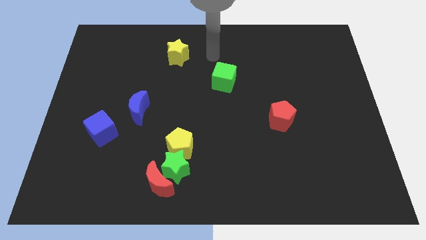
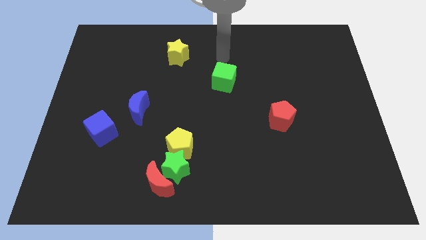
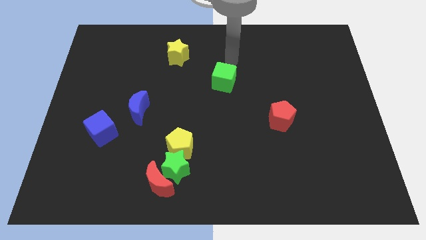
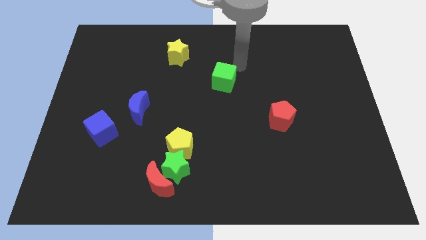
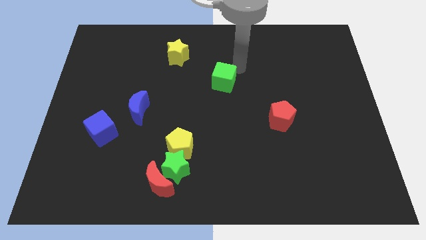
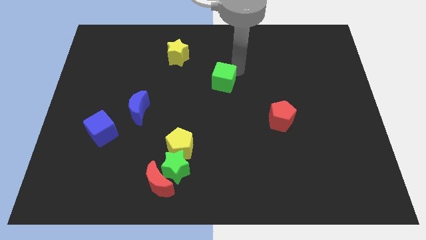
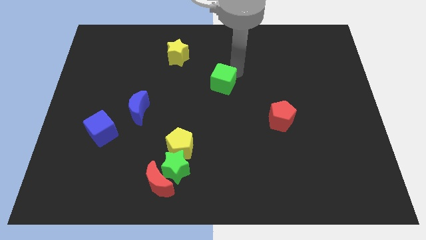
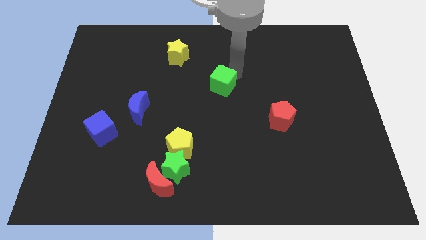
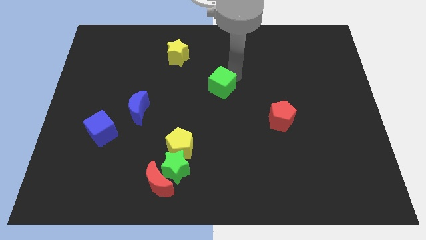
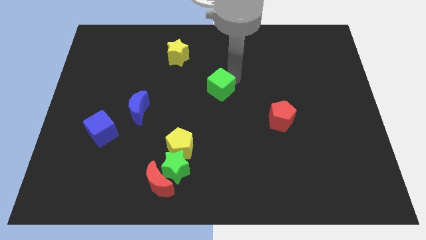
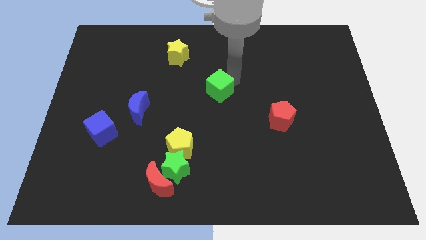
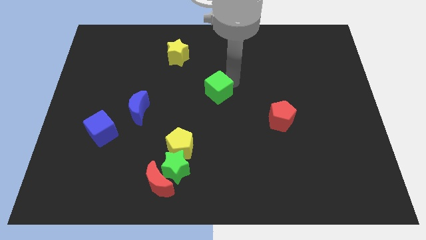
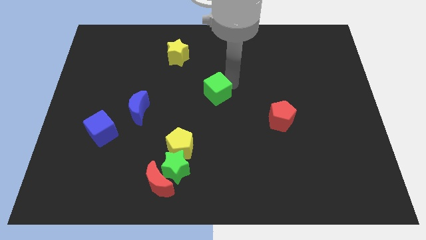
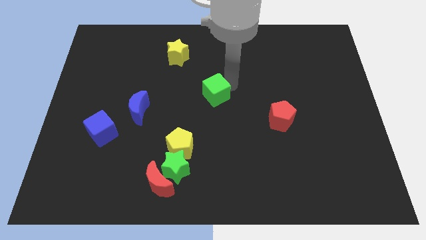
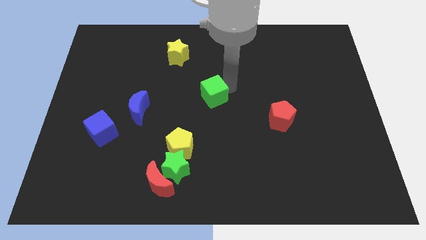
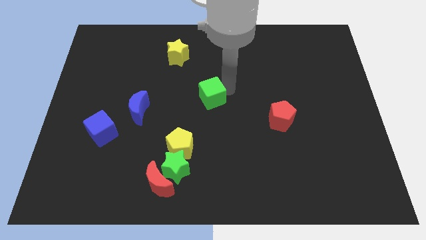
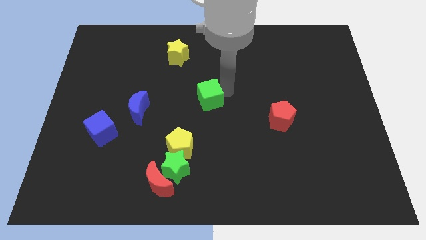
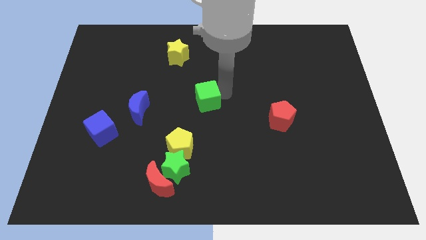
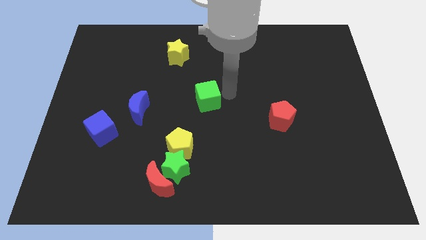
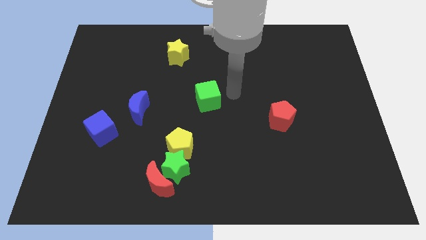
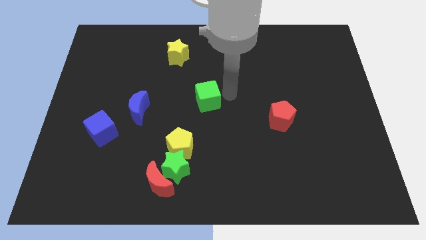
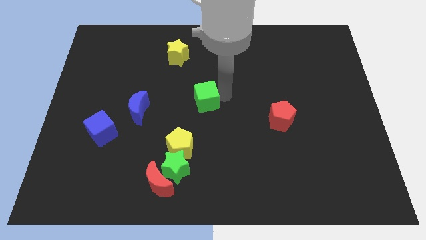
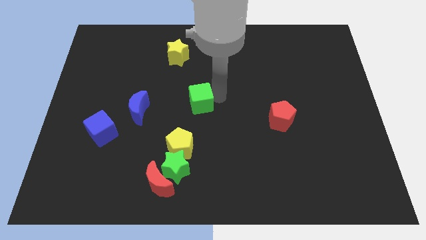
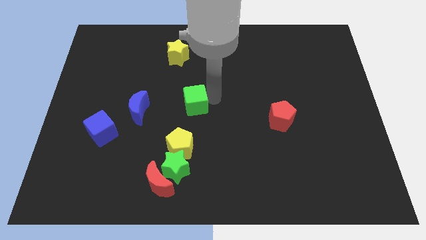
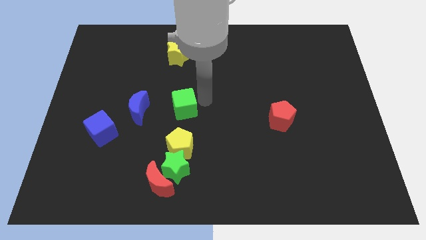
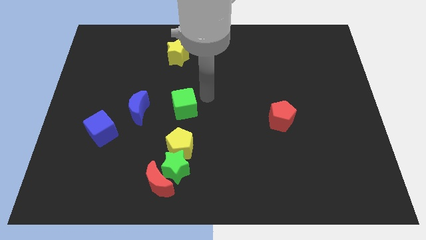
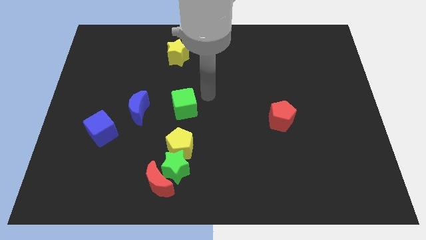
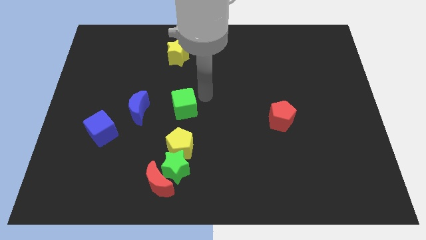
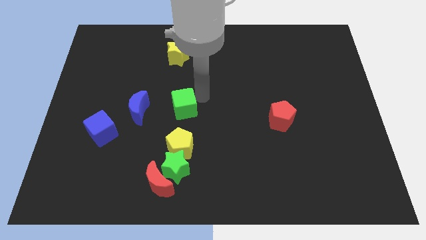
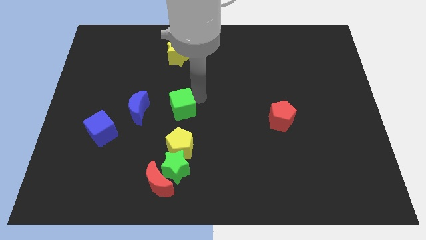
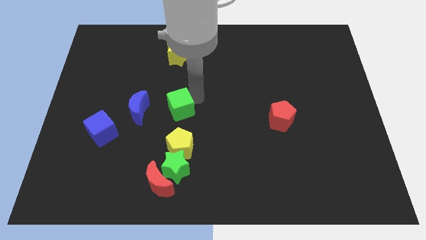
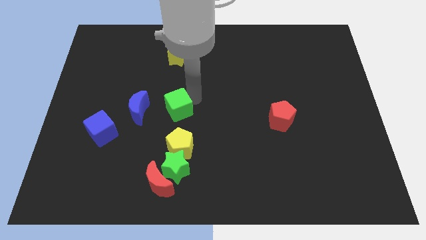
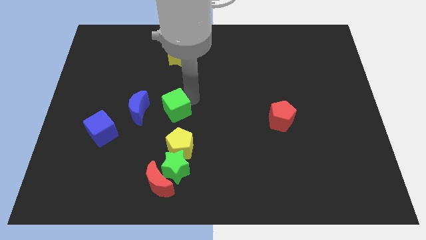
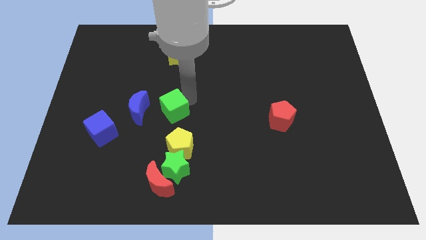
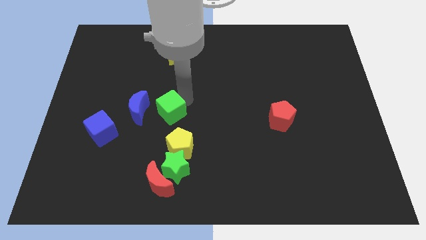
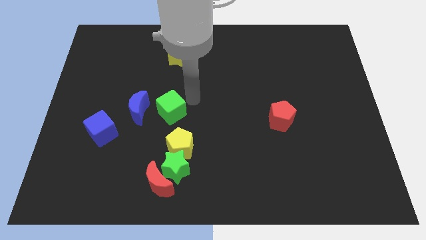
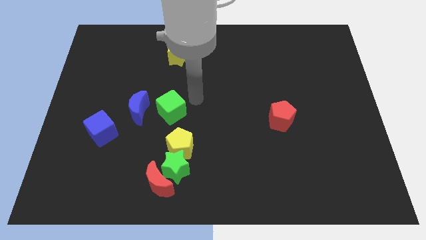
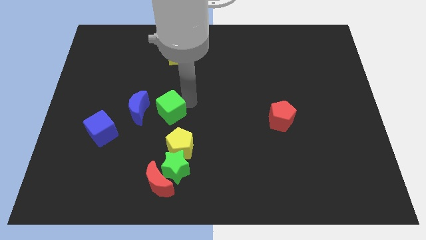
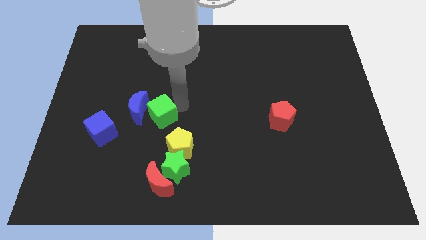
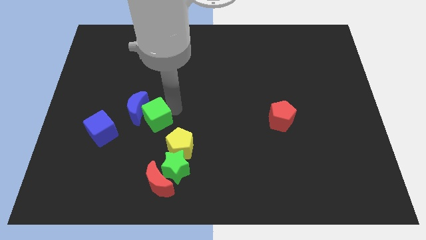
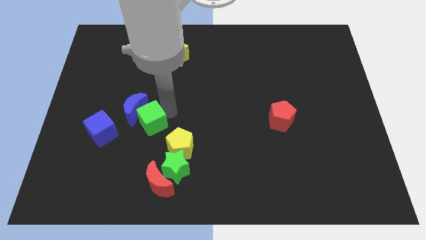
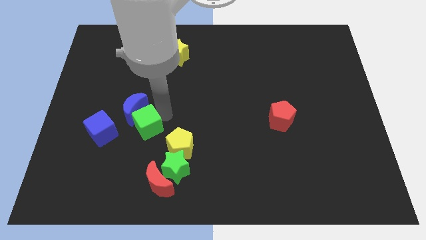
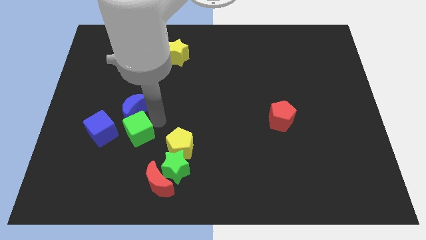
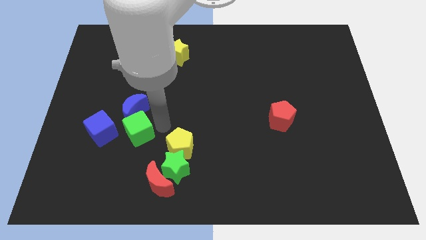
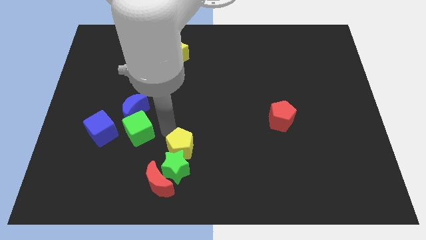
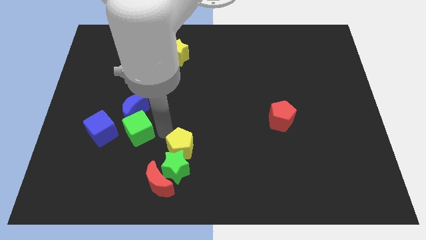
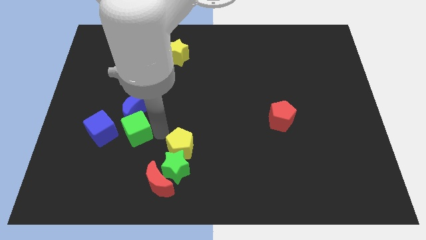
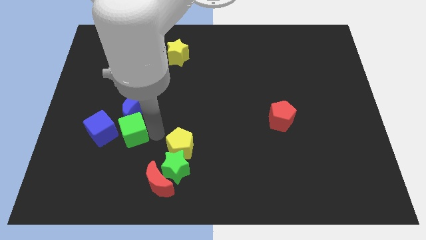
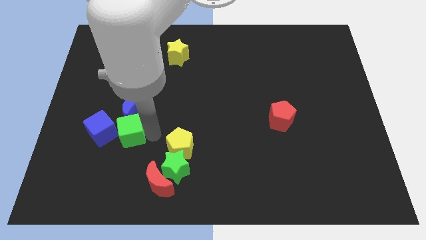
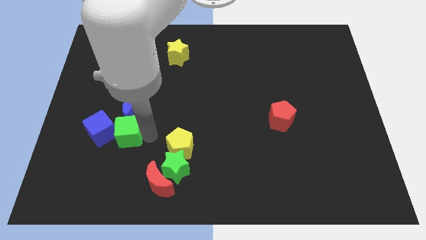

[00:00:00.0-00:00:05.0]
slide the green cube towards the blue cube

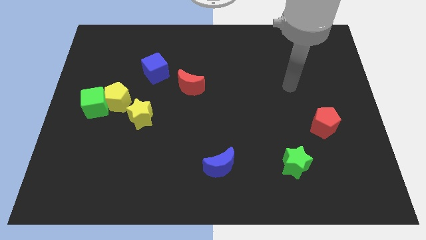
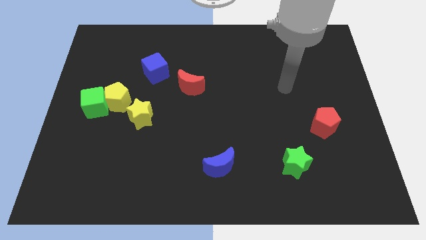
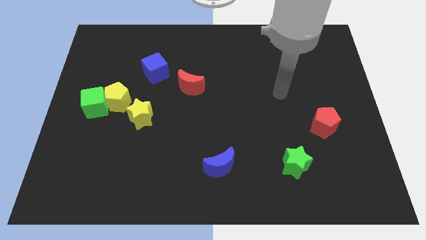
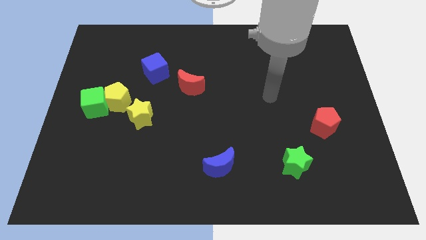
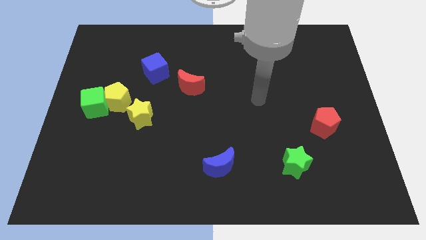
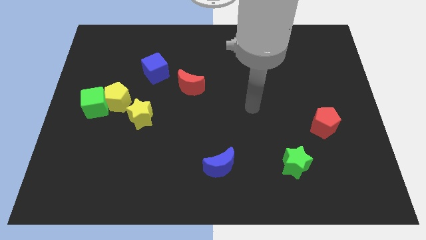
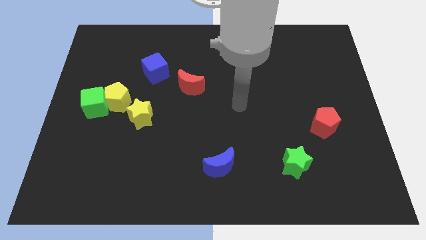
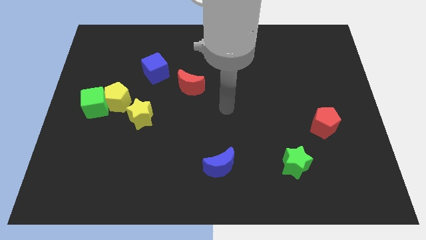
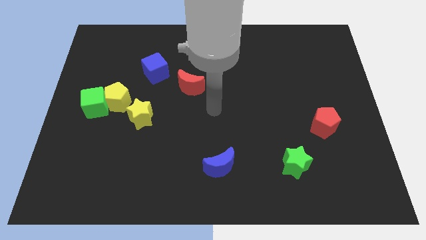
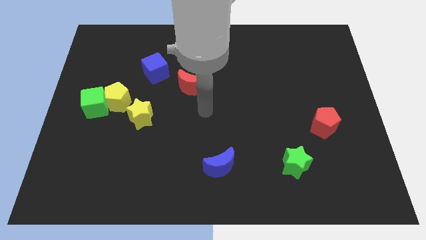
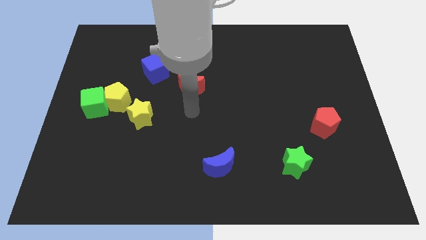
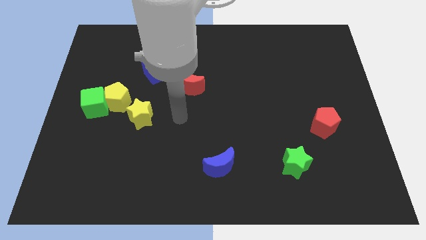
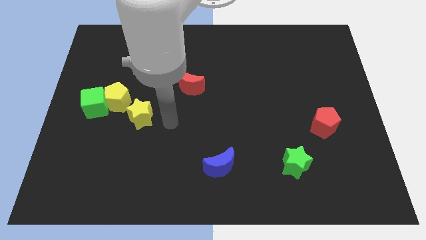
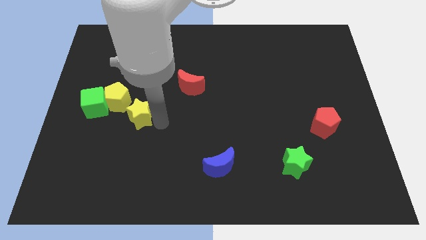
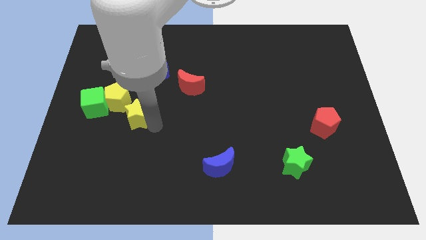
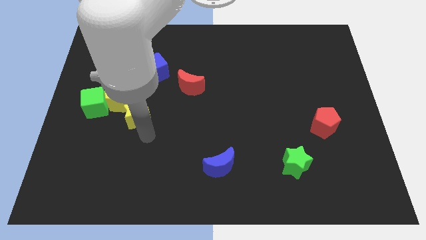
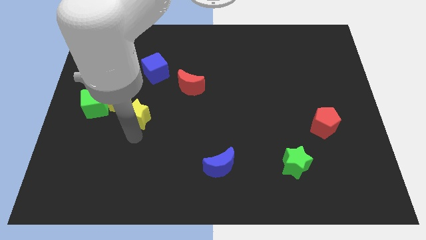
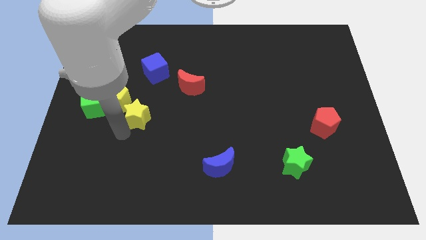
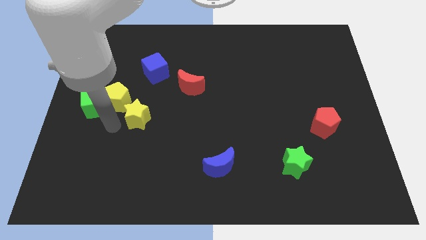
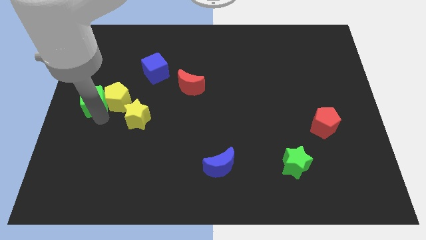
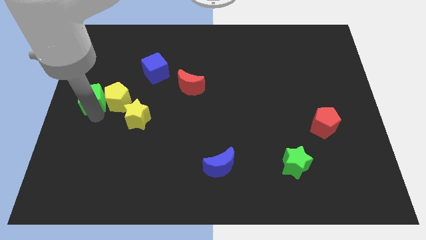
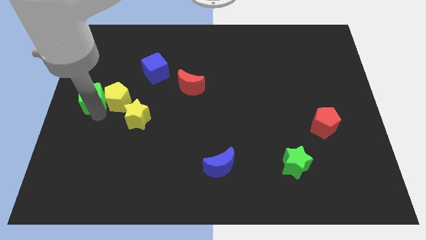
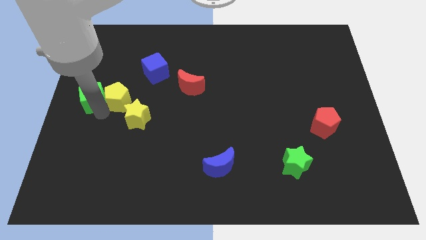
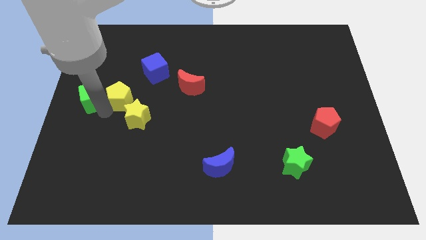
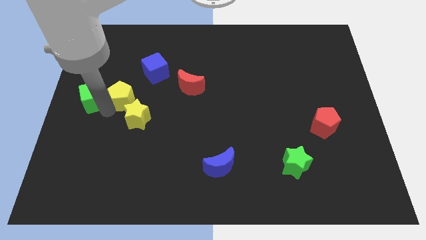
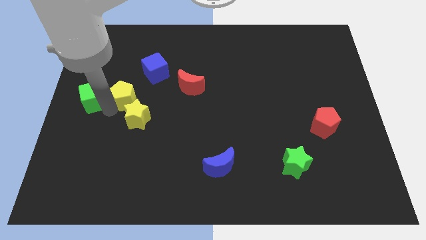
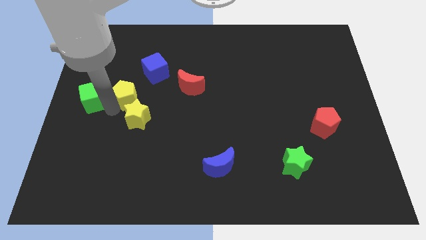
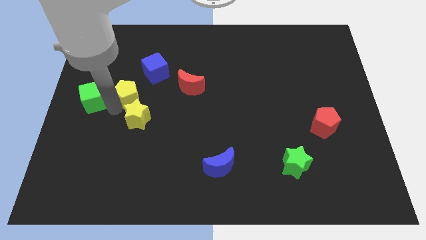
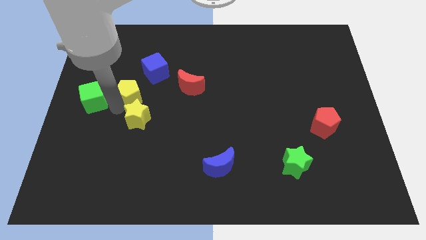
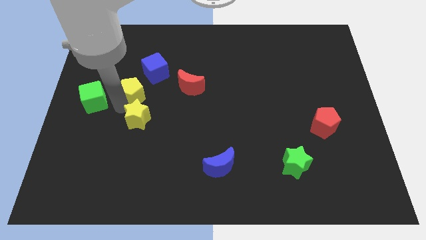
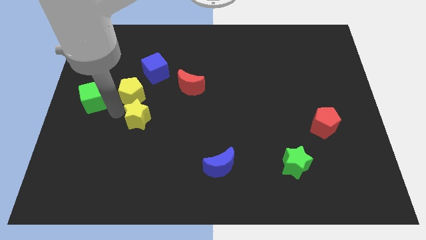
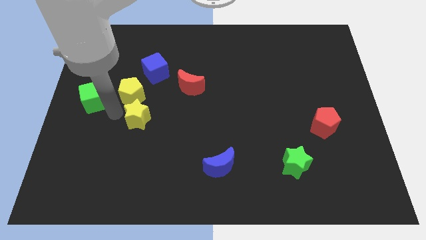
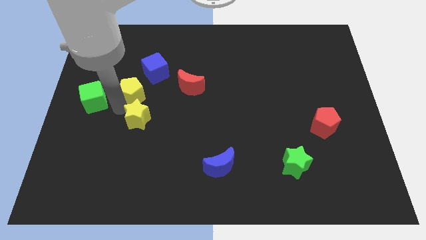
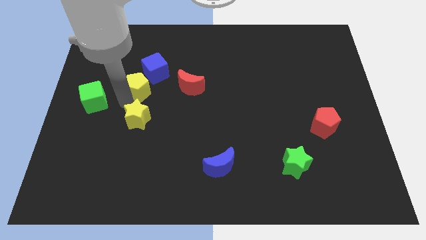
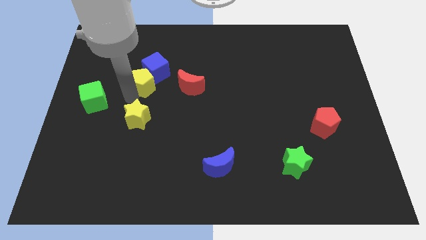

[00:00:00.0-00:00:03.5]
put the yellow pentagon towards the blue cube
